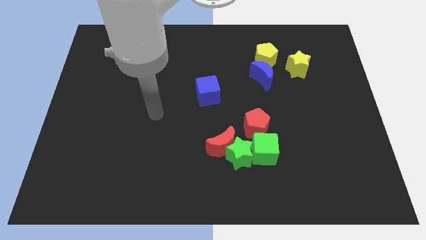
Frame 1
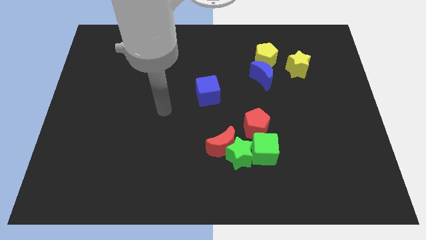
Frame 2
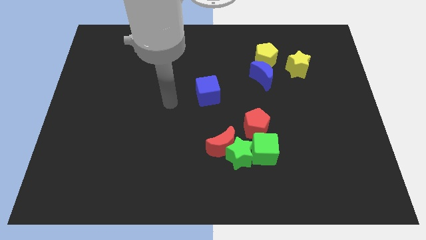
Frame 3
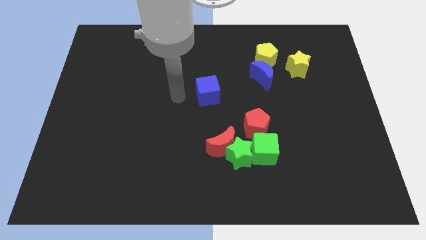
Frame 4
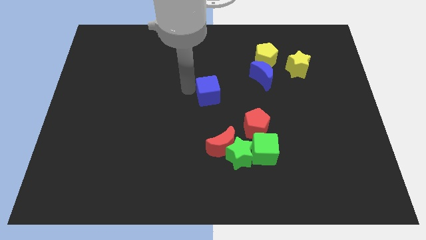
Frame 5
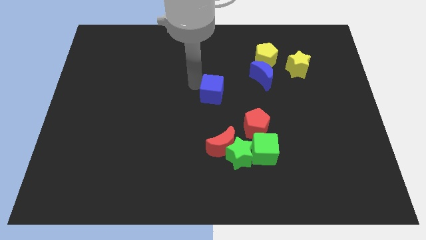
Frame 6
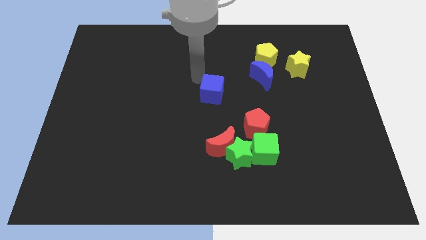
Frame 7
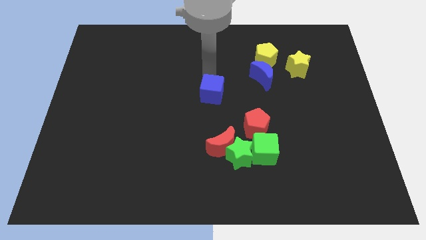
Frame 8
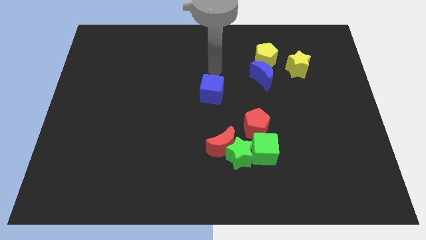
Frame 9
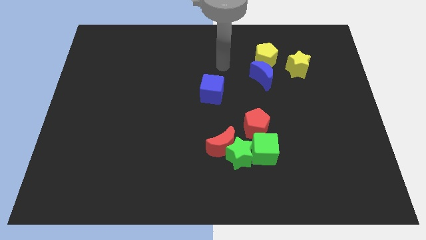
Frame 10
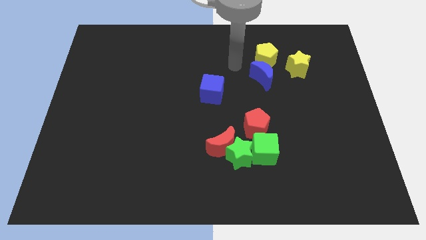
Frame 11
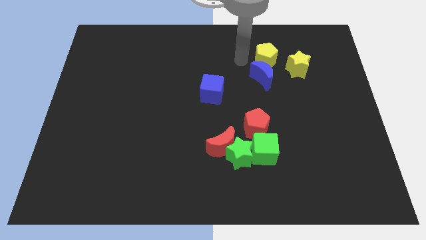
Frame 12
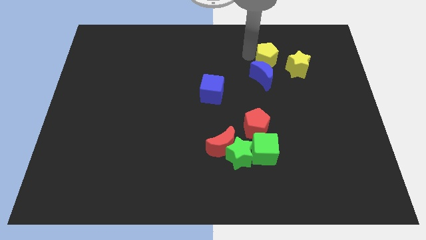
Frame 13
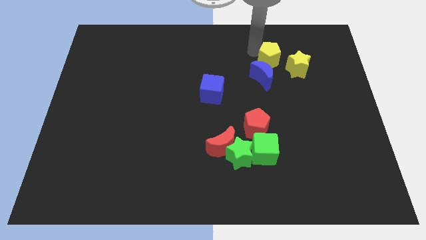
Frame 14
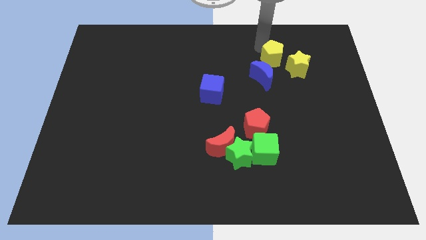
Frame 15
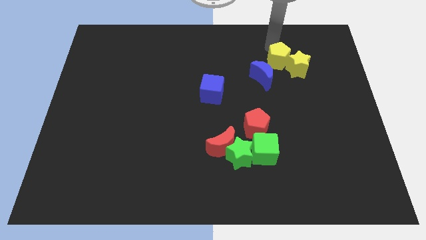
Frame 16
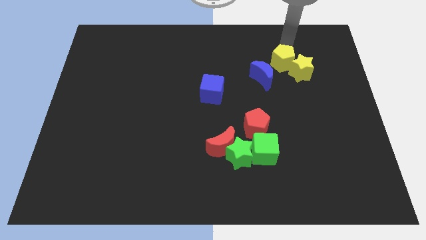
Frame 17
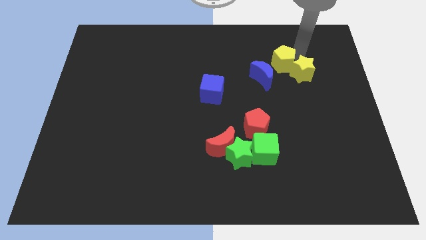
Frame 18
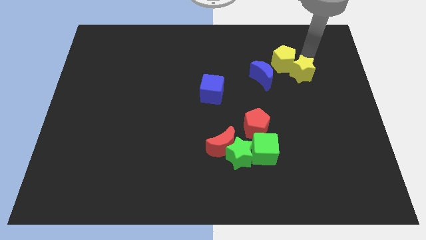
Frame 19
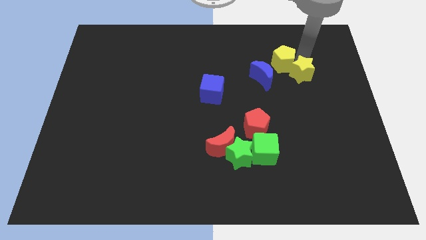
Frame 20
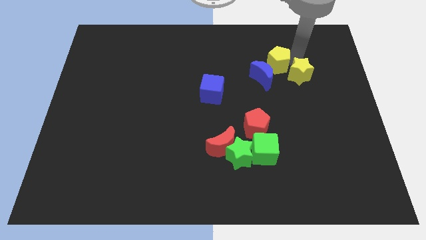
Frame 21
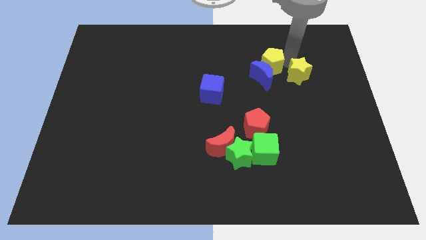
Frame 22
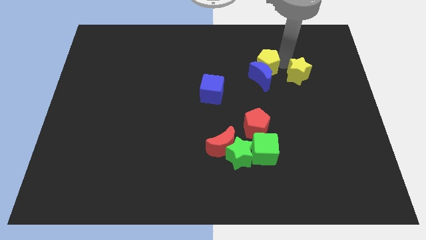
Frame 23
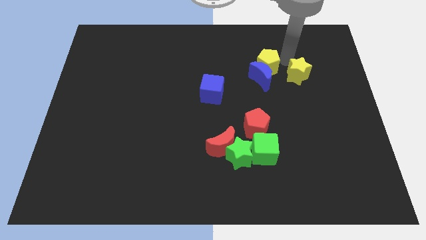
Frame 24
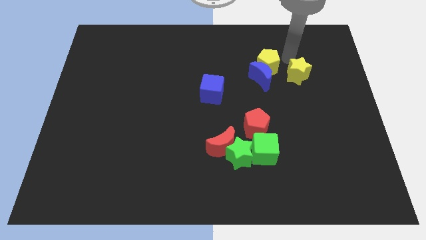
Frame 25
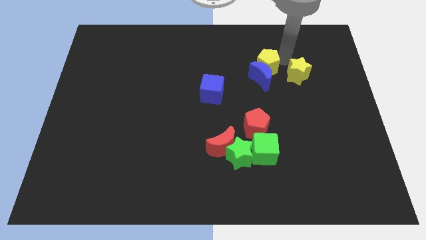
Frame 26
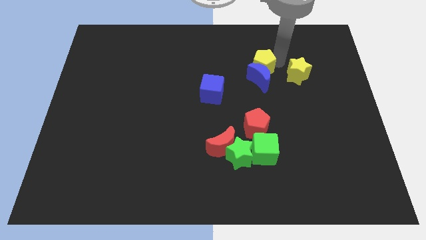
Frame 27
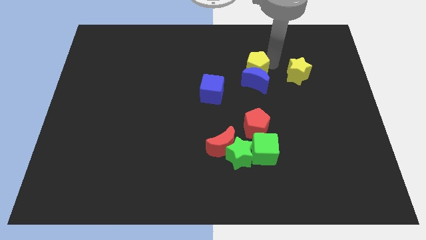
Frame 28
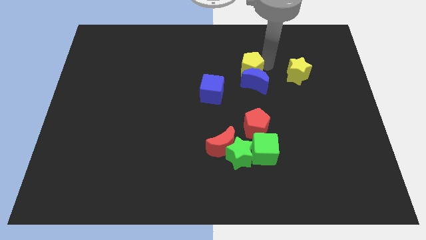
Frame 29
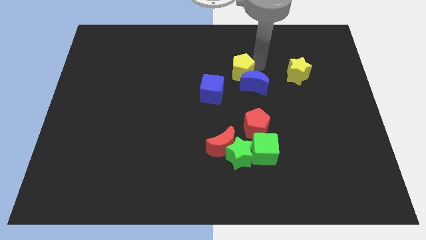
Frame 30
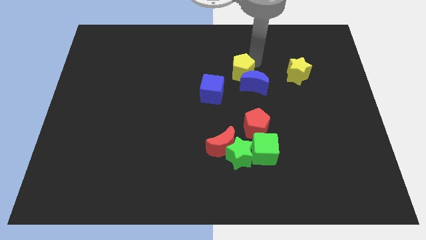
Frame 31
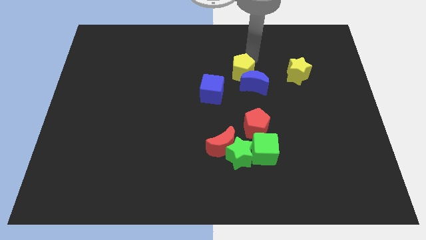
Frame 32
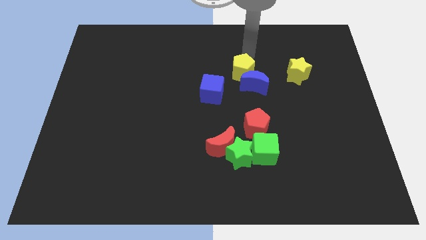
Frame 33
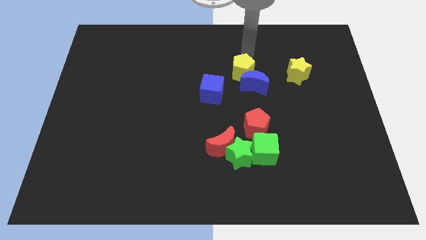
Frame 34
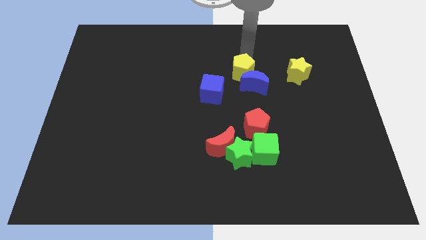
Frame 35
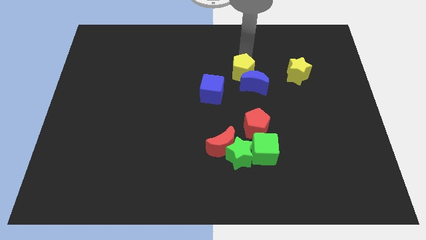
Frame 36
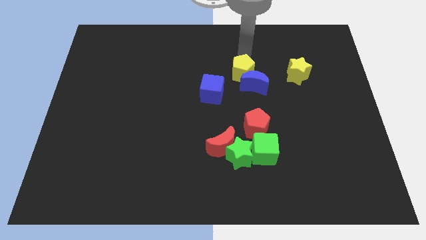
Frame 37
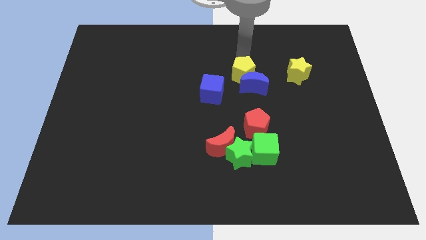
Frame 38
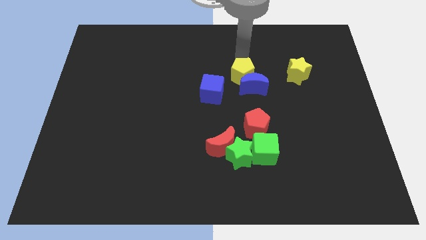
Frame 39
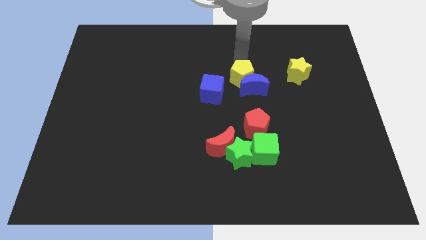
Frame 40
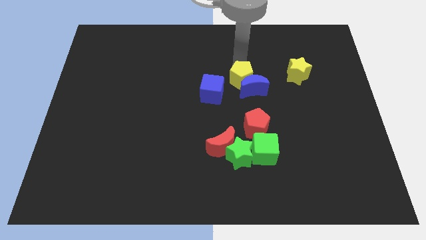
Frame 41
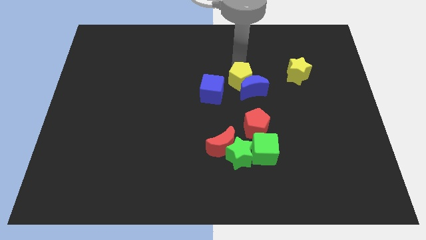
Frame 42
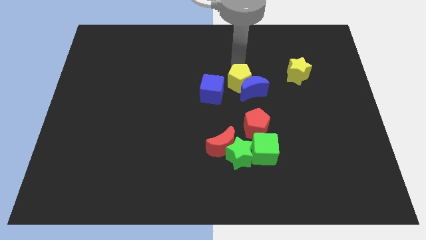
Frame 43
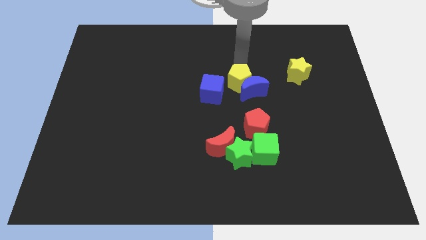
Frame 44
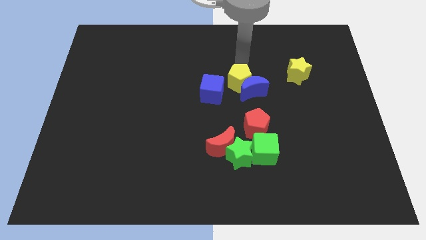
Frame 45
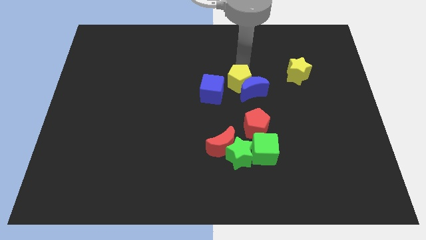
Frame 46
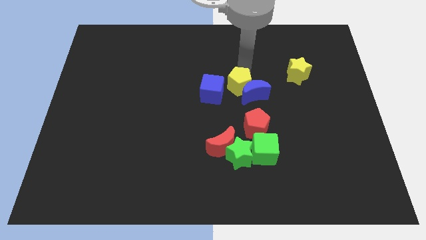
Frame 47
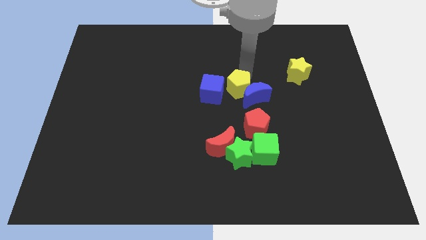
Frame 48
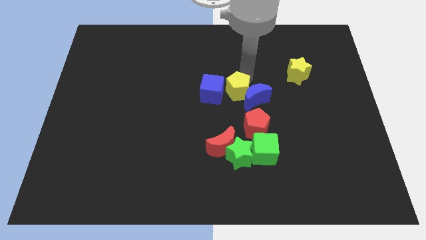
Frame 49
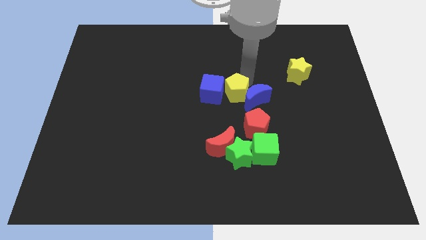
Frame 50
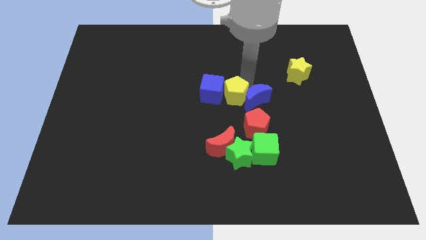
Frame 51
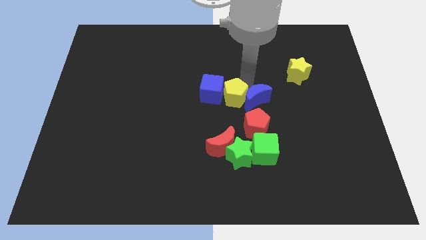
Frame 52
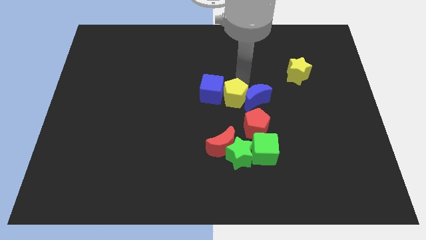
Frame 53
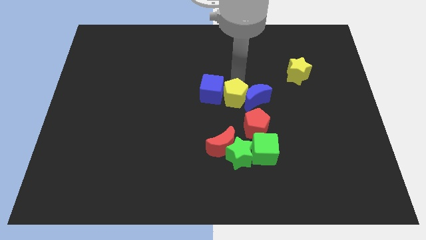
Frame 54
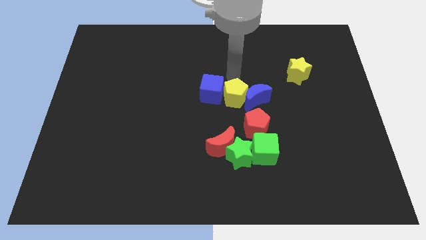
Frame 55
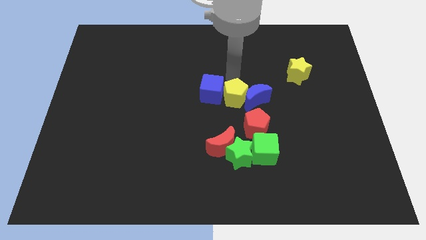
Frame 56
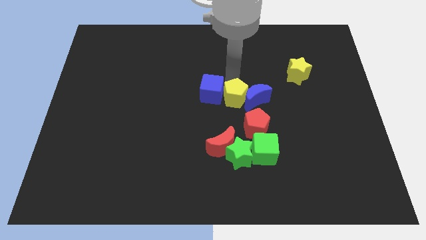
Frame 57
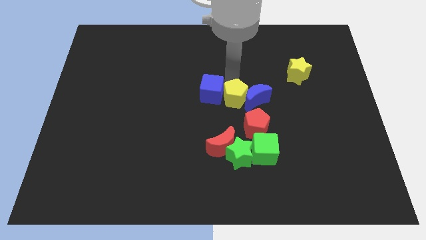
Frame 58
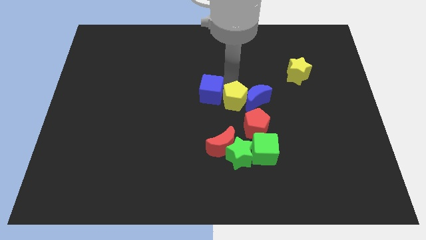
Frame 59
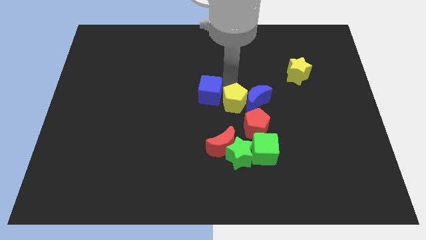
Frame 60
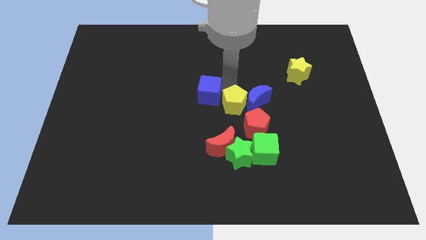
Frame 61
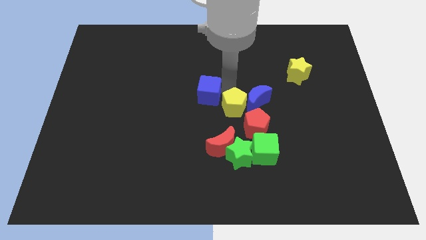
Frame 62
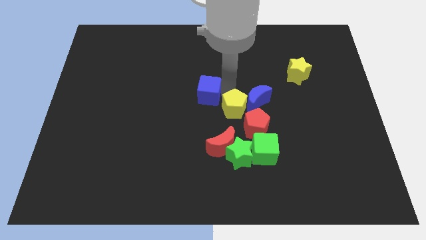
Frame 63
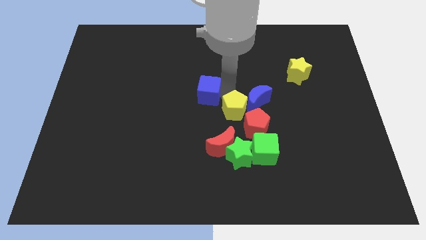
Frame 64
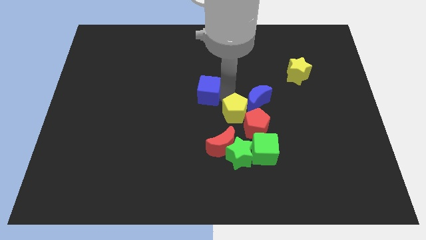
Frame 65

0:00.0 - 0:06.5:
put the yellow pentagon to the top left side of the green cube

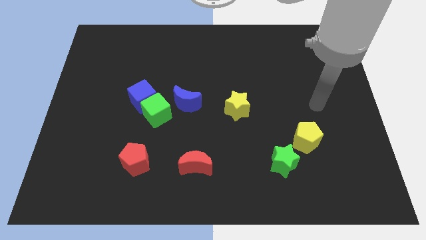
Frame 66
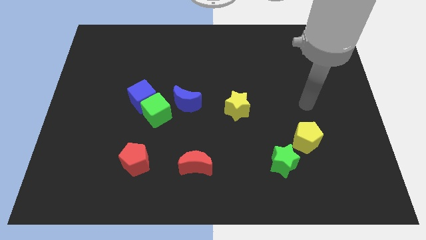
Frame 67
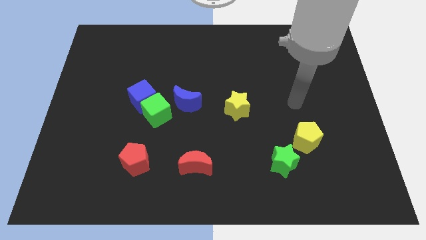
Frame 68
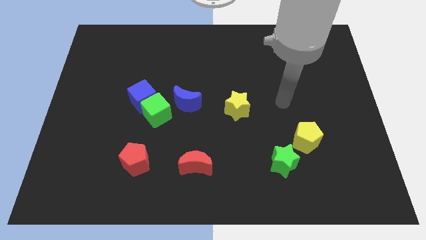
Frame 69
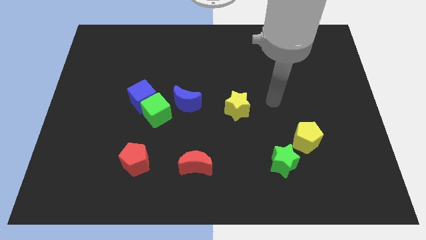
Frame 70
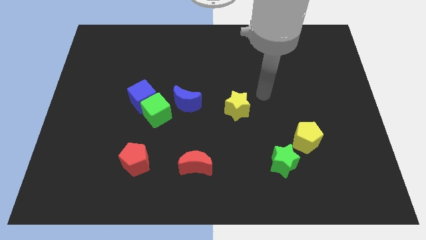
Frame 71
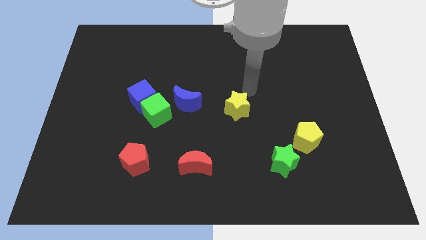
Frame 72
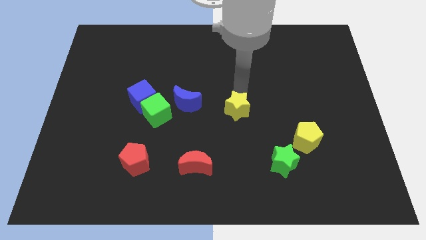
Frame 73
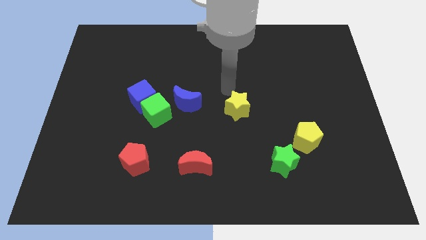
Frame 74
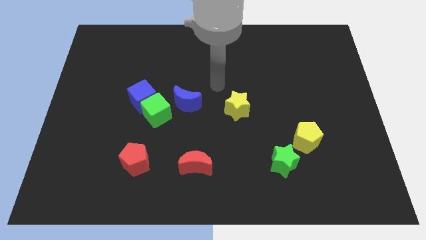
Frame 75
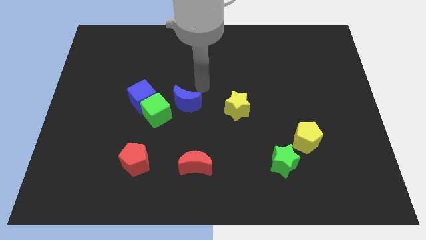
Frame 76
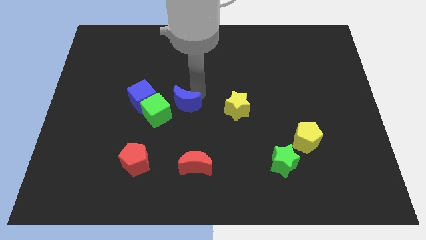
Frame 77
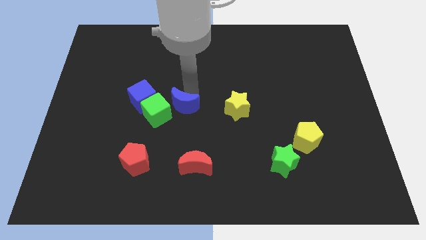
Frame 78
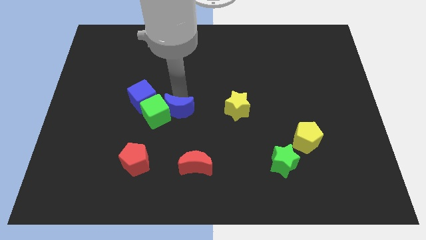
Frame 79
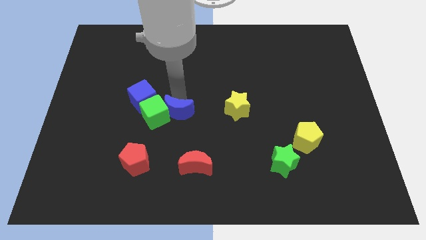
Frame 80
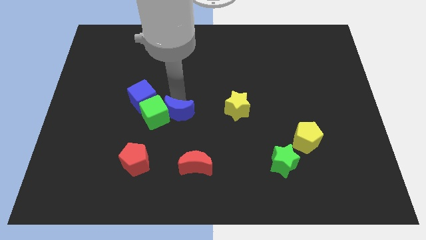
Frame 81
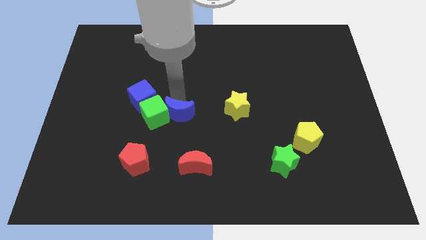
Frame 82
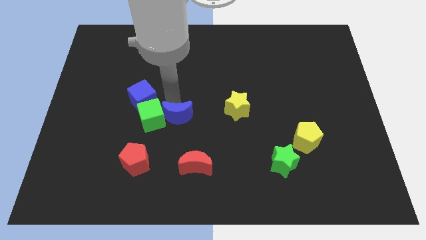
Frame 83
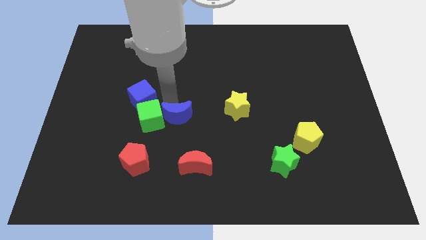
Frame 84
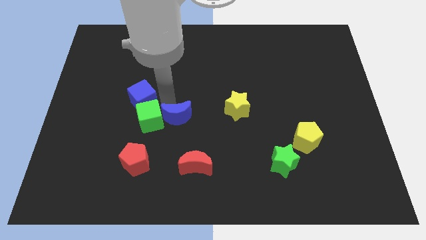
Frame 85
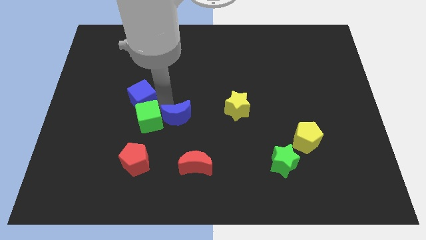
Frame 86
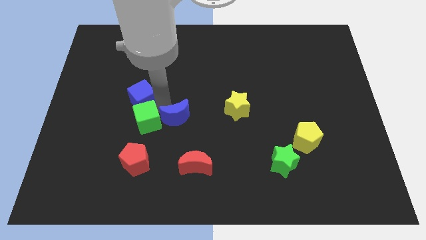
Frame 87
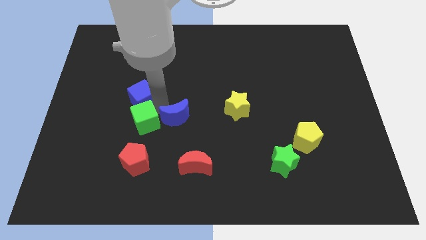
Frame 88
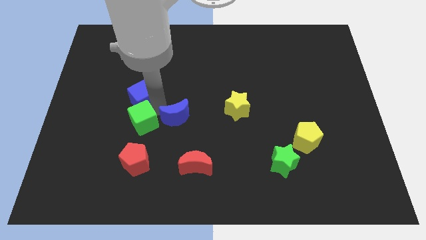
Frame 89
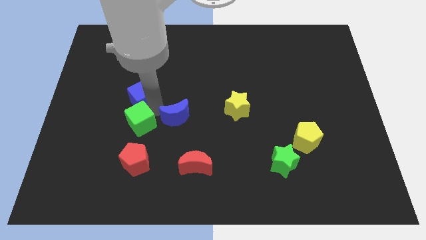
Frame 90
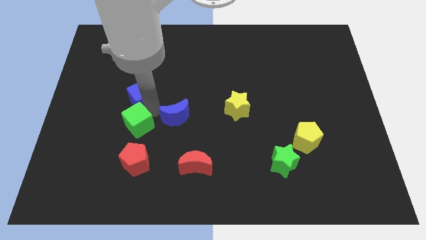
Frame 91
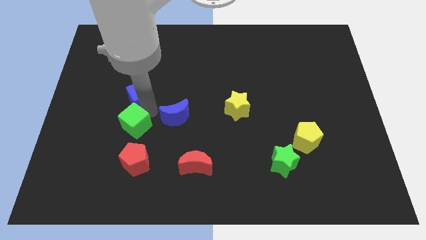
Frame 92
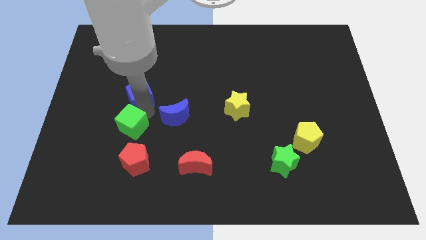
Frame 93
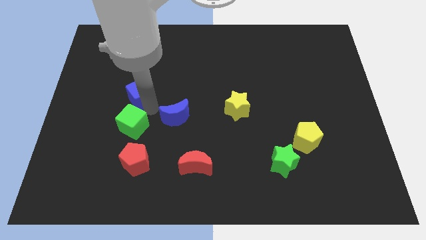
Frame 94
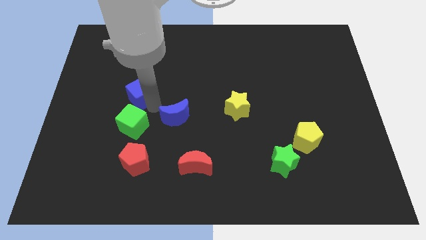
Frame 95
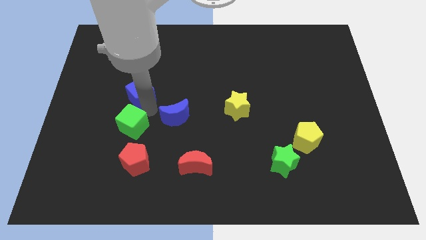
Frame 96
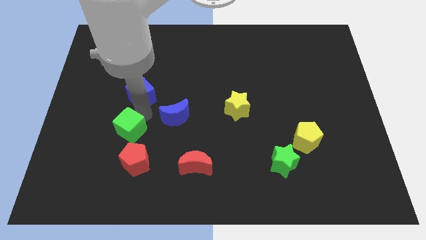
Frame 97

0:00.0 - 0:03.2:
move the green cube diagonally up and to the left of the red pentagon
